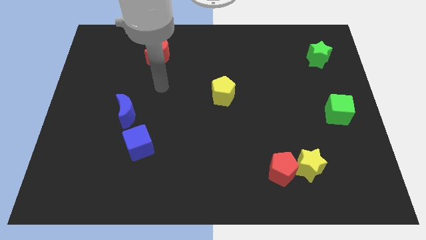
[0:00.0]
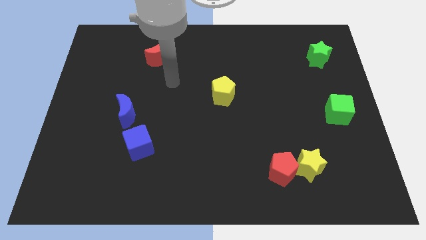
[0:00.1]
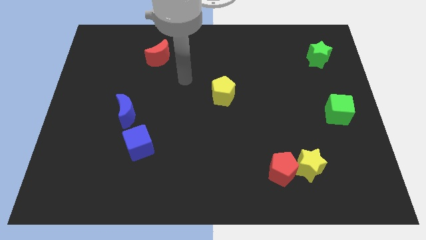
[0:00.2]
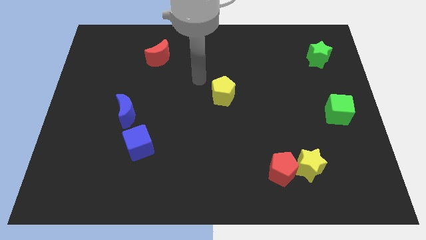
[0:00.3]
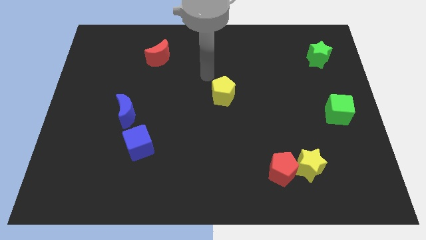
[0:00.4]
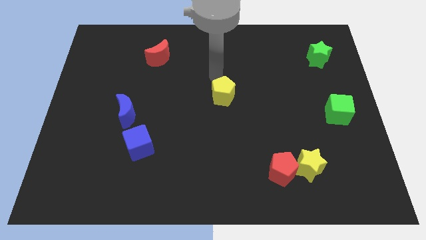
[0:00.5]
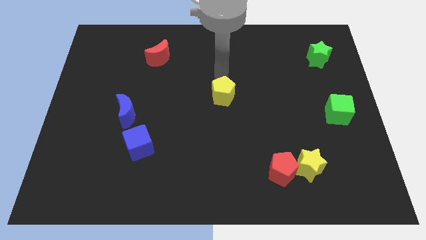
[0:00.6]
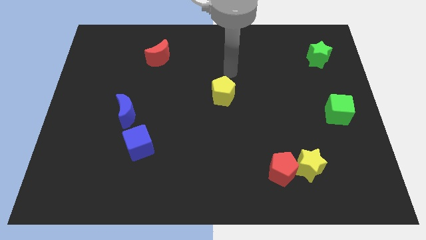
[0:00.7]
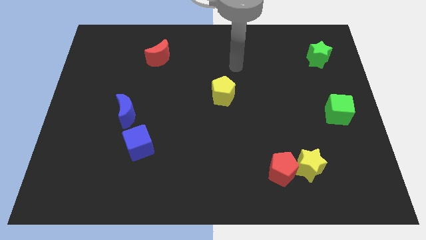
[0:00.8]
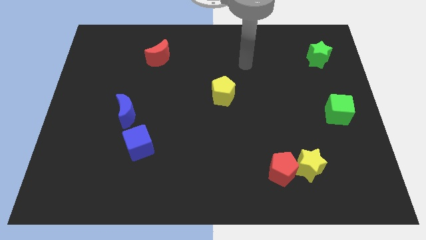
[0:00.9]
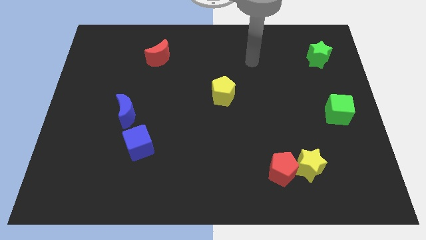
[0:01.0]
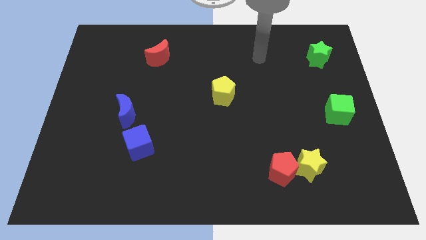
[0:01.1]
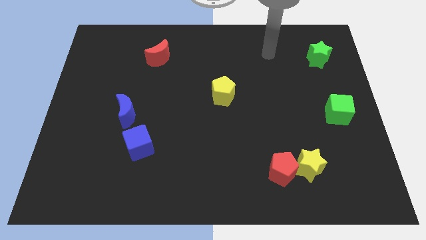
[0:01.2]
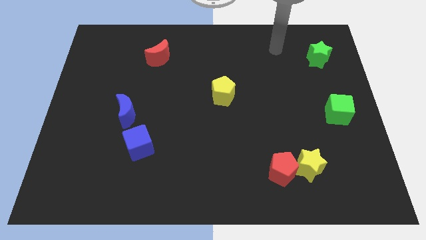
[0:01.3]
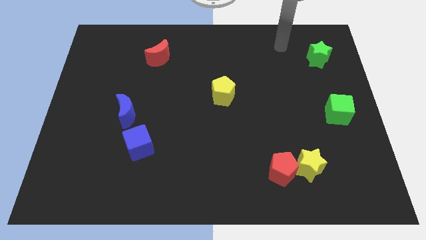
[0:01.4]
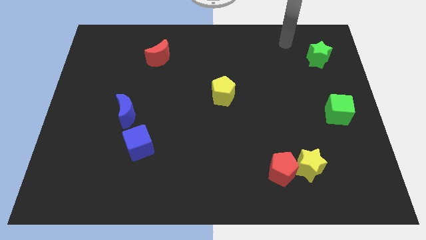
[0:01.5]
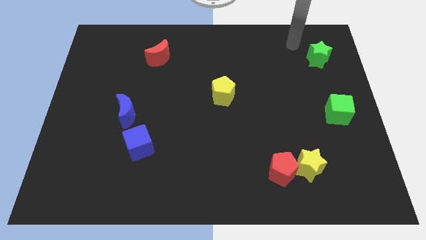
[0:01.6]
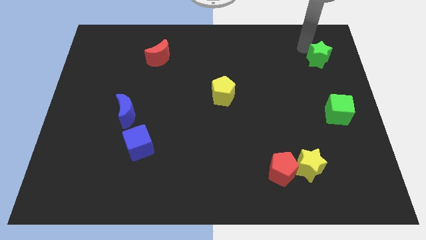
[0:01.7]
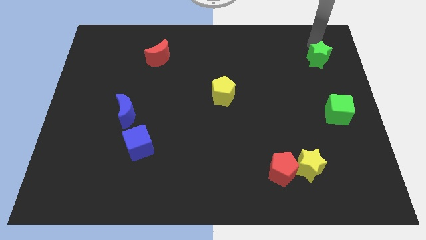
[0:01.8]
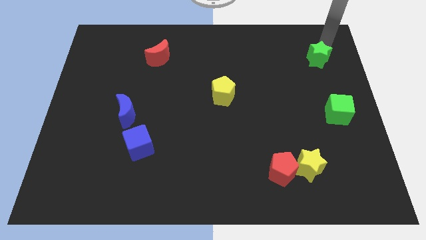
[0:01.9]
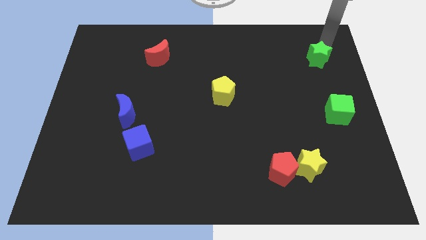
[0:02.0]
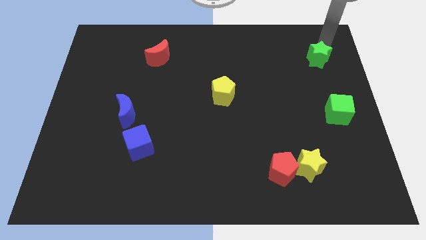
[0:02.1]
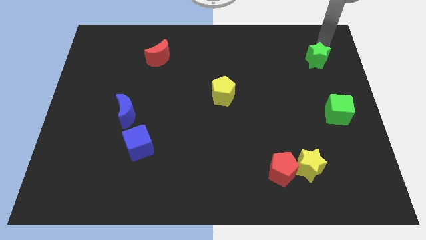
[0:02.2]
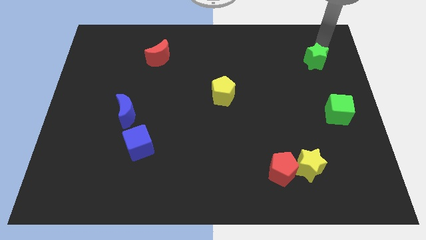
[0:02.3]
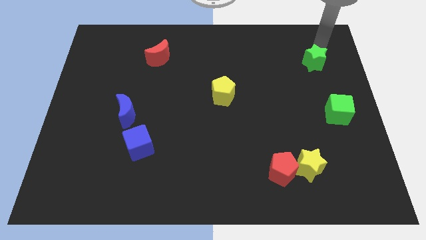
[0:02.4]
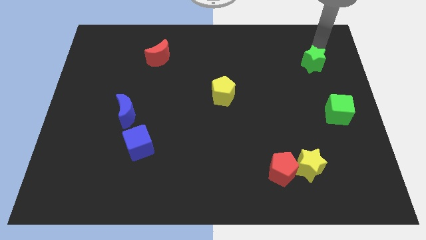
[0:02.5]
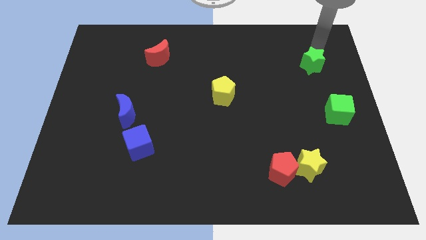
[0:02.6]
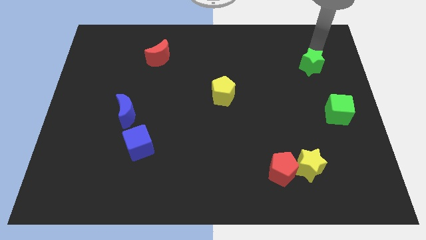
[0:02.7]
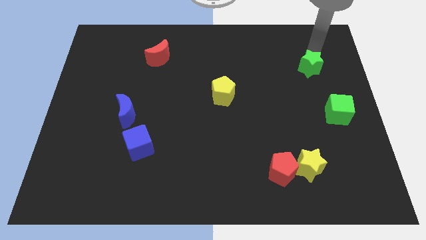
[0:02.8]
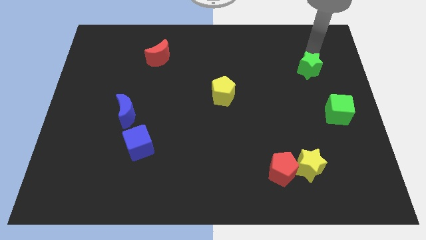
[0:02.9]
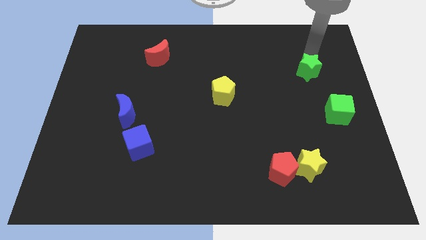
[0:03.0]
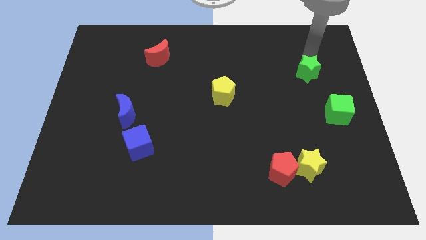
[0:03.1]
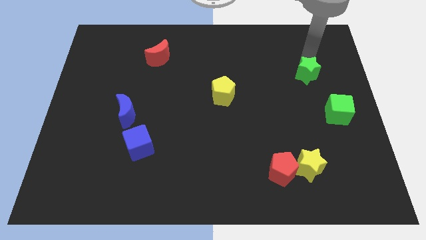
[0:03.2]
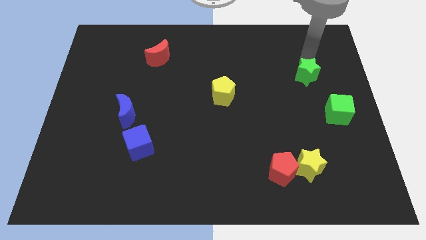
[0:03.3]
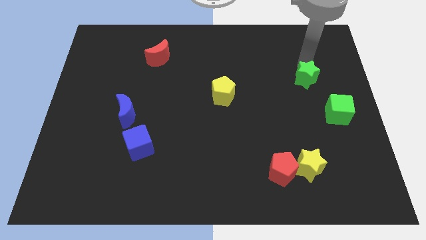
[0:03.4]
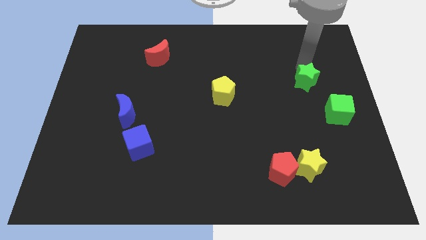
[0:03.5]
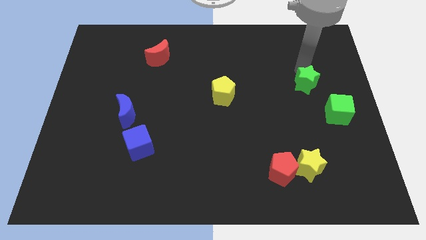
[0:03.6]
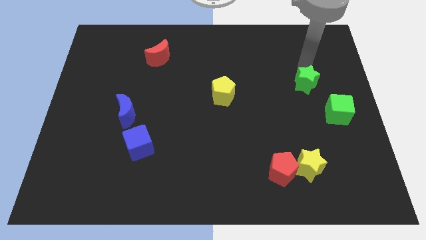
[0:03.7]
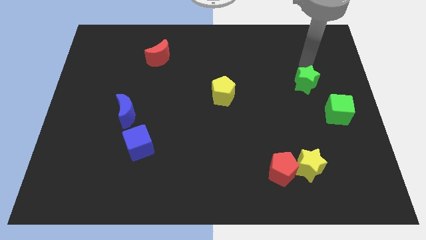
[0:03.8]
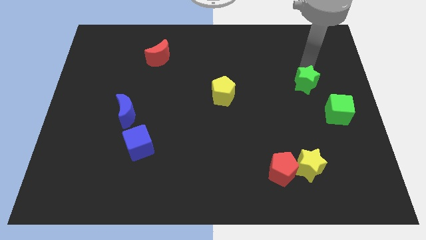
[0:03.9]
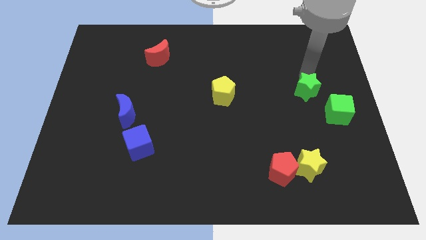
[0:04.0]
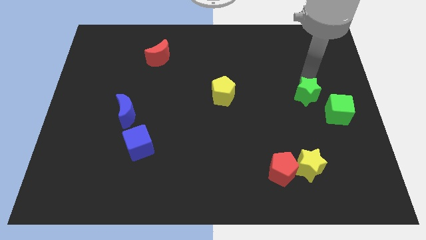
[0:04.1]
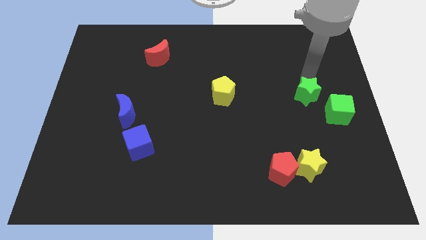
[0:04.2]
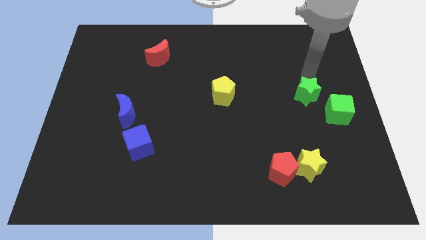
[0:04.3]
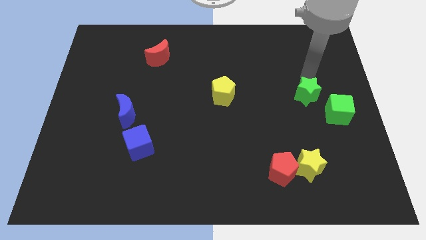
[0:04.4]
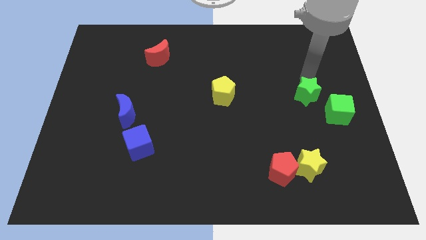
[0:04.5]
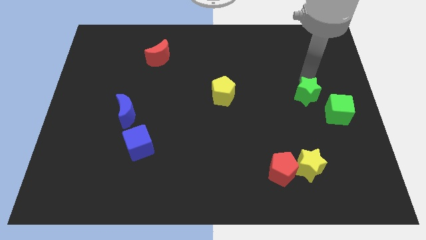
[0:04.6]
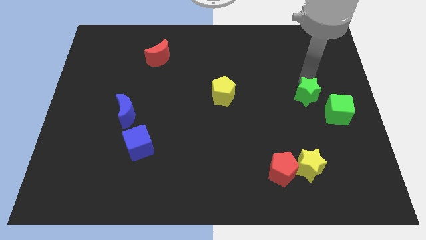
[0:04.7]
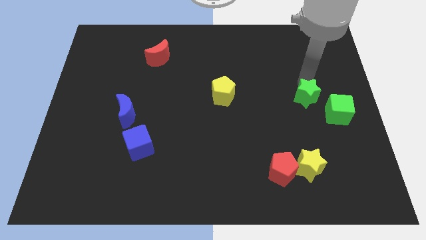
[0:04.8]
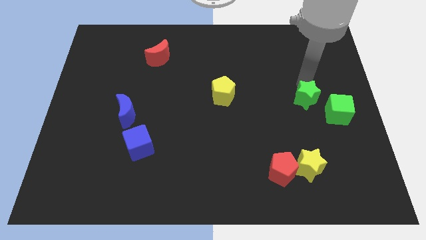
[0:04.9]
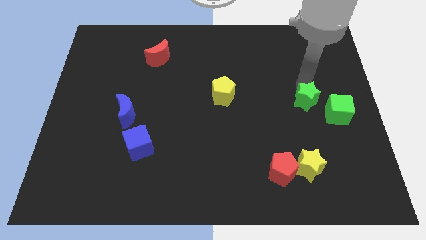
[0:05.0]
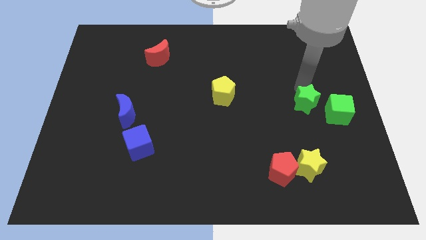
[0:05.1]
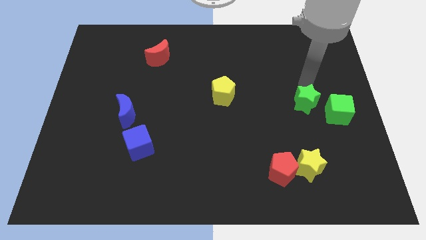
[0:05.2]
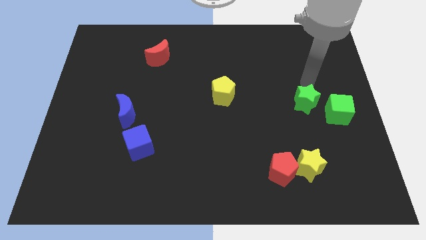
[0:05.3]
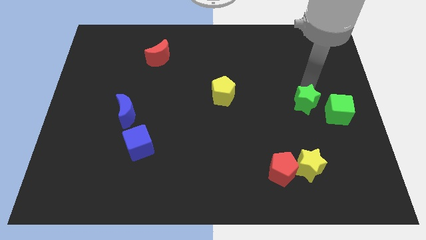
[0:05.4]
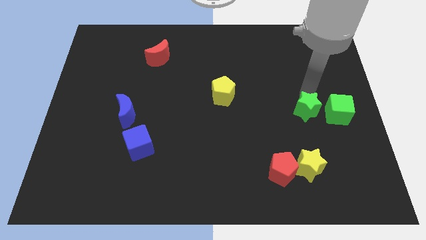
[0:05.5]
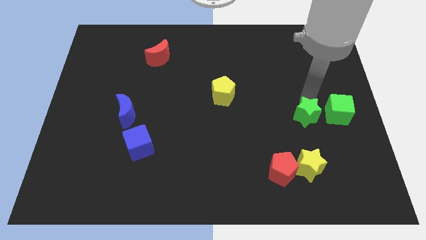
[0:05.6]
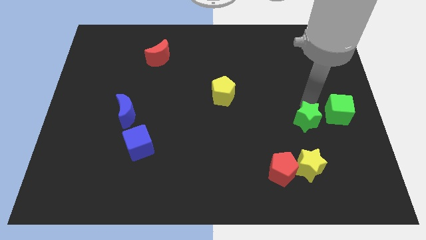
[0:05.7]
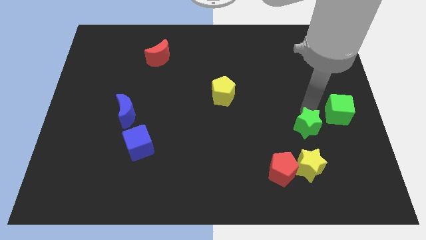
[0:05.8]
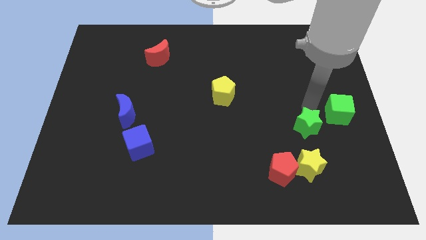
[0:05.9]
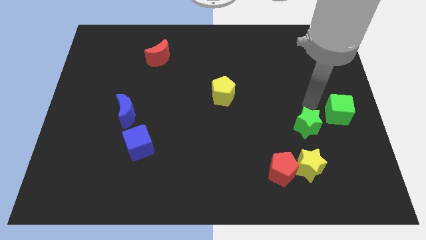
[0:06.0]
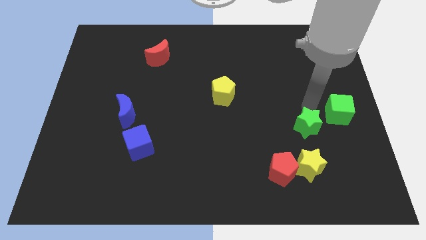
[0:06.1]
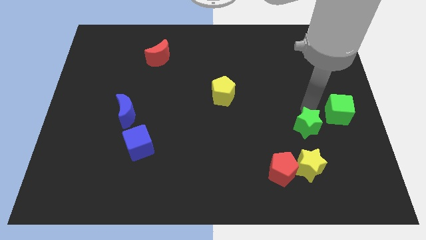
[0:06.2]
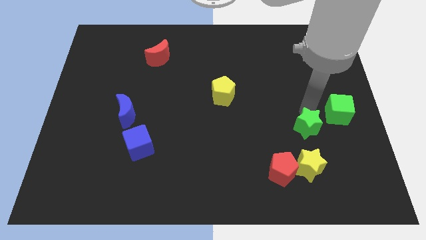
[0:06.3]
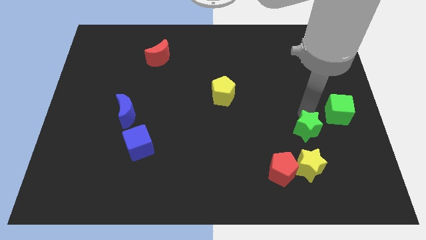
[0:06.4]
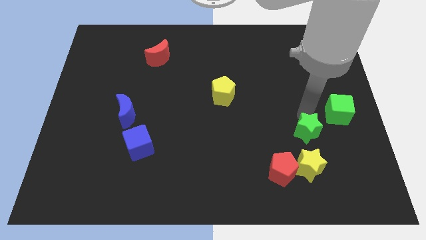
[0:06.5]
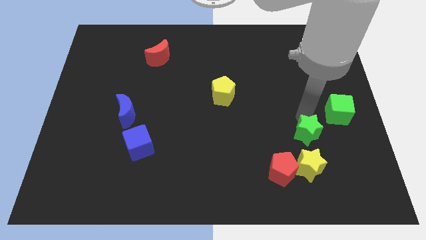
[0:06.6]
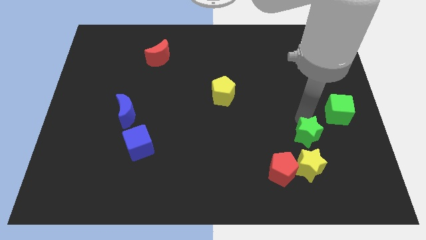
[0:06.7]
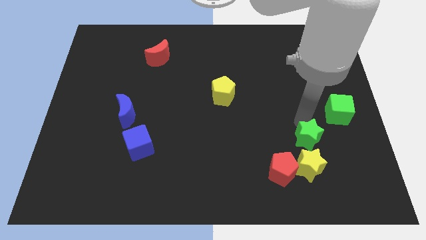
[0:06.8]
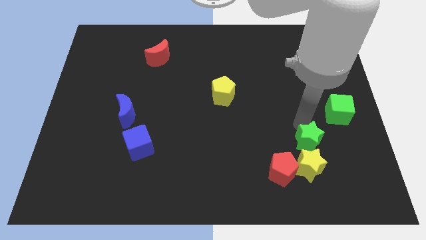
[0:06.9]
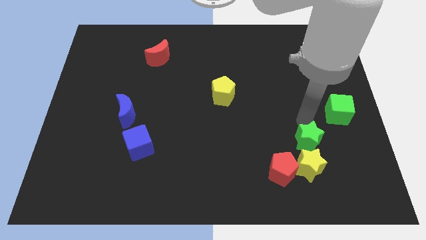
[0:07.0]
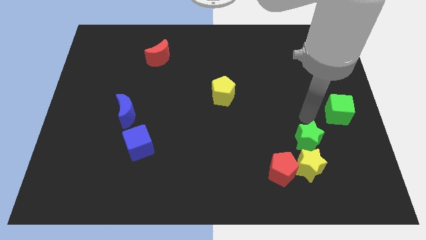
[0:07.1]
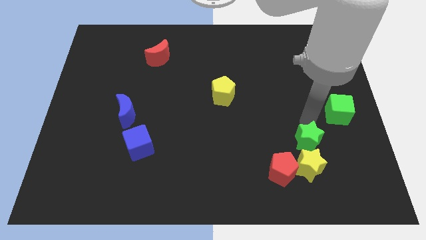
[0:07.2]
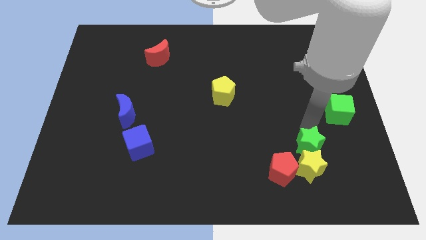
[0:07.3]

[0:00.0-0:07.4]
put the green star towards the yellow star

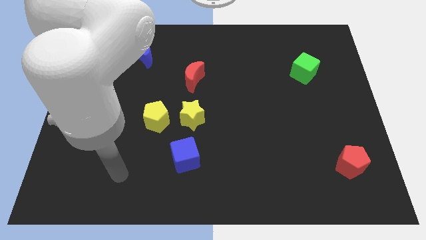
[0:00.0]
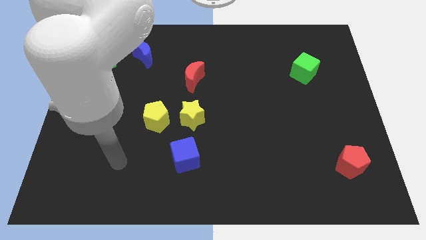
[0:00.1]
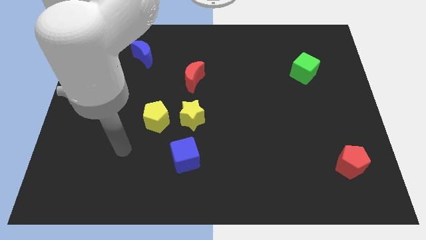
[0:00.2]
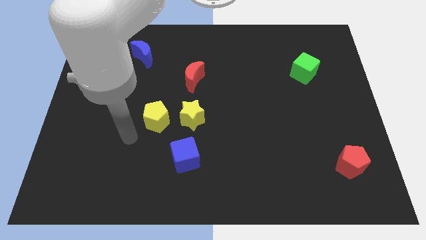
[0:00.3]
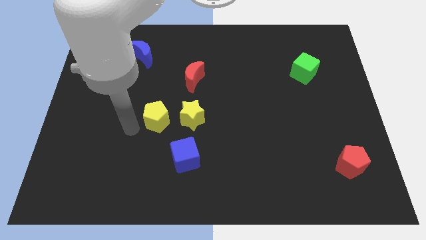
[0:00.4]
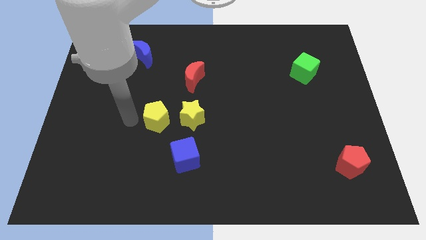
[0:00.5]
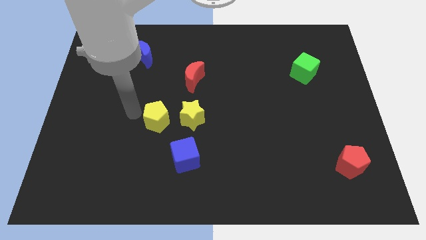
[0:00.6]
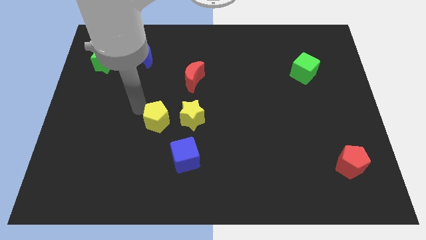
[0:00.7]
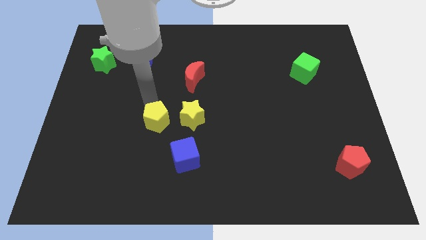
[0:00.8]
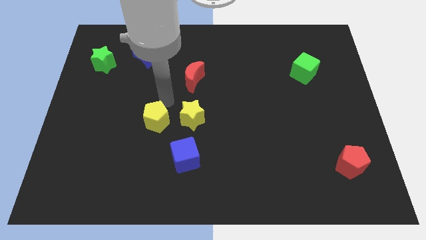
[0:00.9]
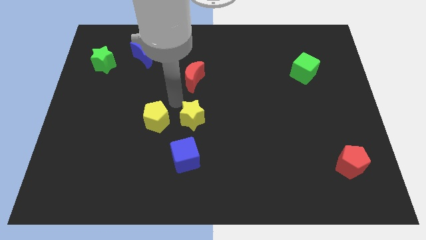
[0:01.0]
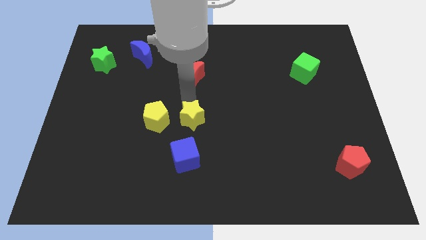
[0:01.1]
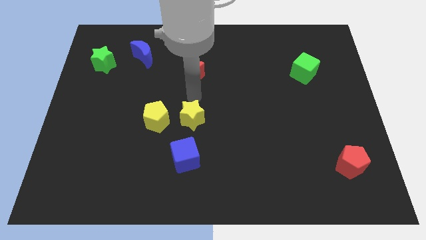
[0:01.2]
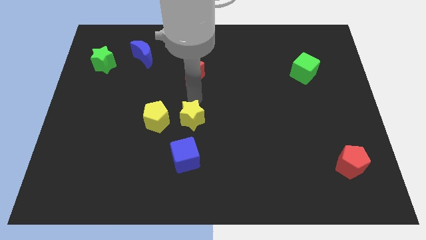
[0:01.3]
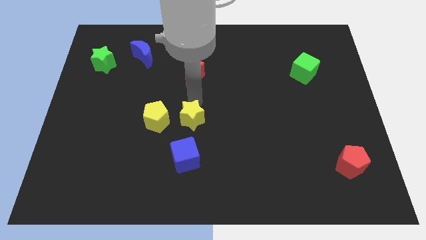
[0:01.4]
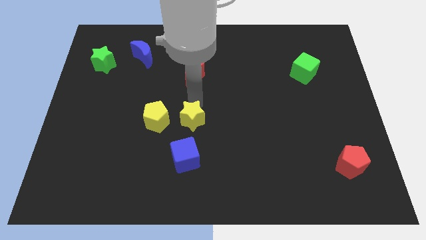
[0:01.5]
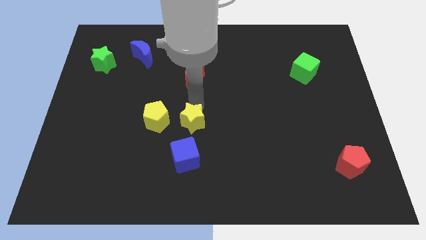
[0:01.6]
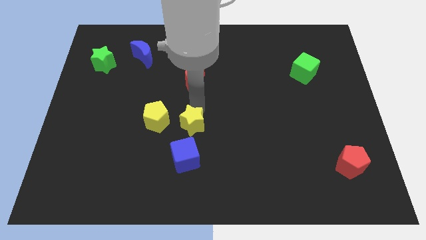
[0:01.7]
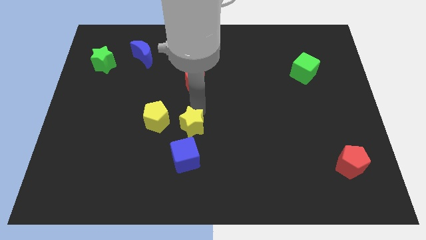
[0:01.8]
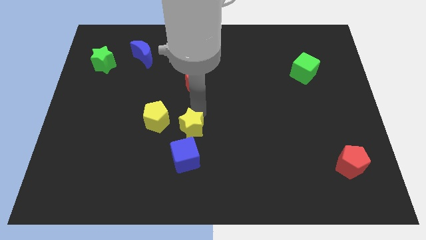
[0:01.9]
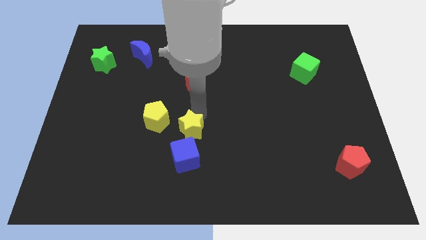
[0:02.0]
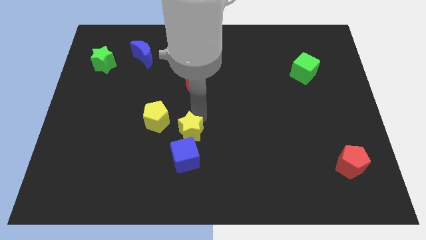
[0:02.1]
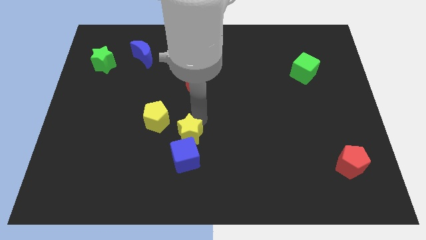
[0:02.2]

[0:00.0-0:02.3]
slide the yellow star next to the blue cube
